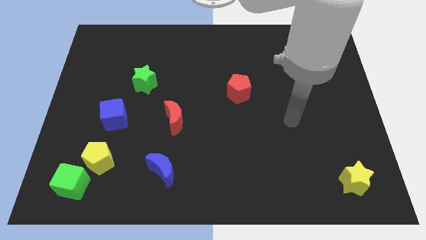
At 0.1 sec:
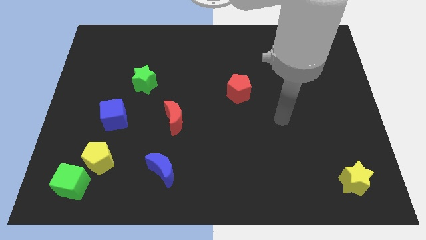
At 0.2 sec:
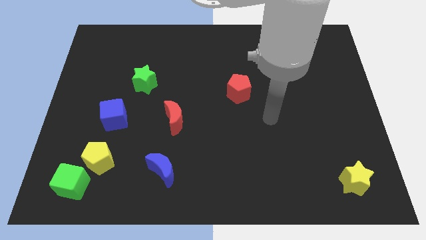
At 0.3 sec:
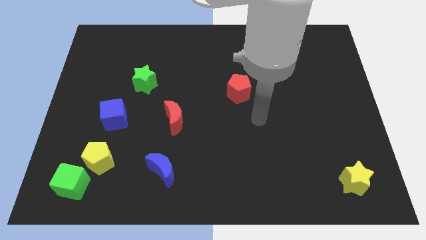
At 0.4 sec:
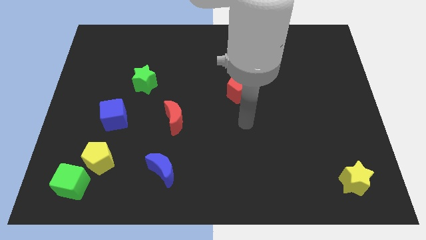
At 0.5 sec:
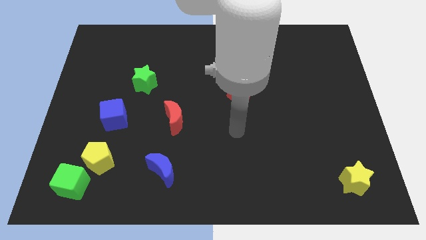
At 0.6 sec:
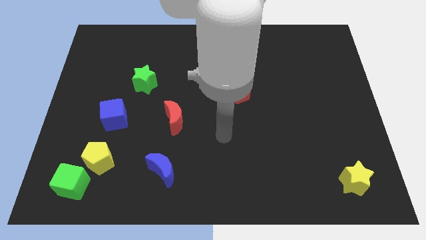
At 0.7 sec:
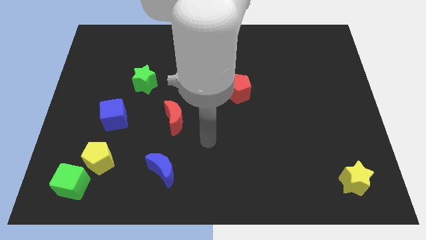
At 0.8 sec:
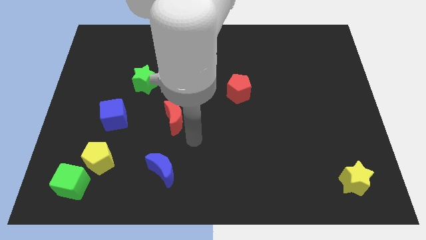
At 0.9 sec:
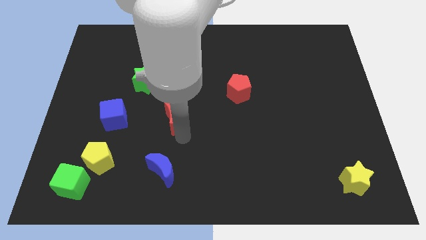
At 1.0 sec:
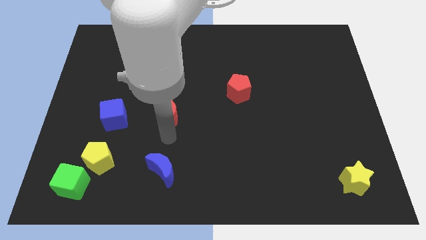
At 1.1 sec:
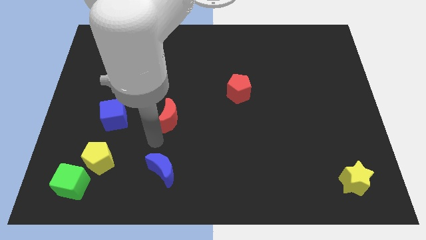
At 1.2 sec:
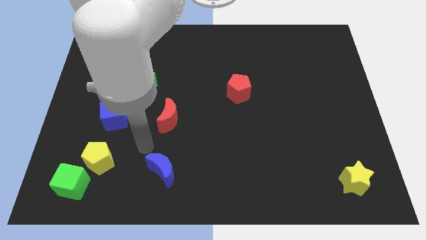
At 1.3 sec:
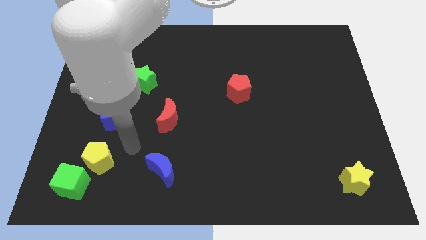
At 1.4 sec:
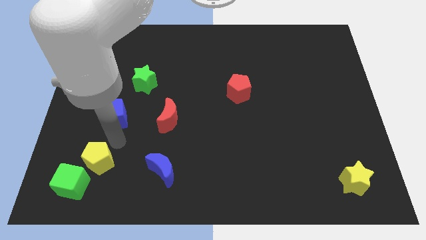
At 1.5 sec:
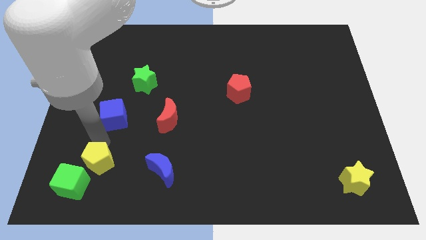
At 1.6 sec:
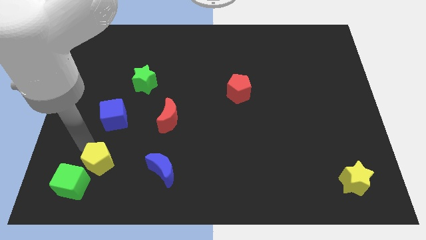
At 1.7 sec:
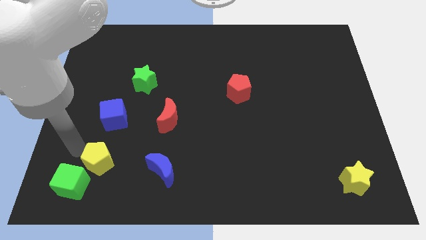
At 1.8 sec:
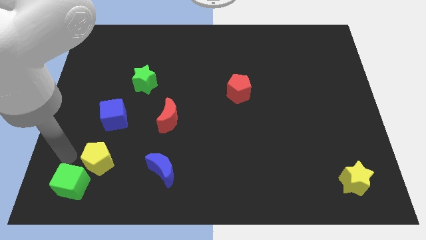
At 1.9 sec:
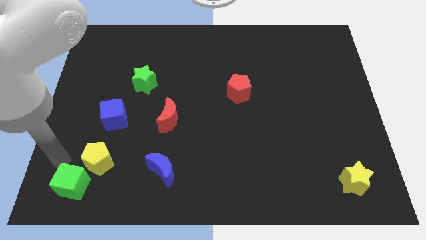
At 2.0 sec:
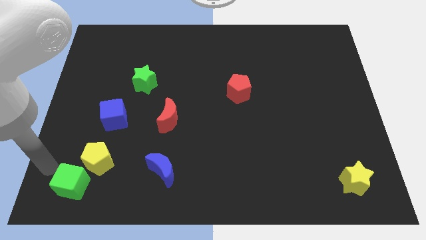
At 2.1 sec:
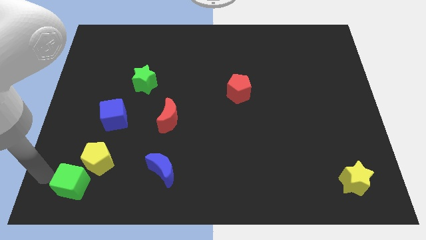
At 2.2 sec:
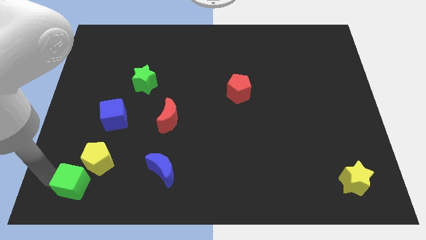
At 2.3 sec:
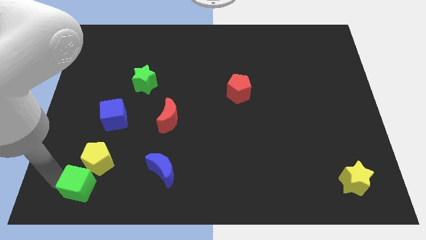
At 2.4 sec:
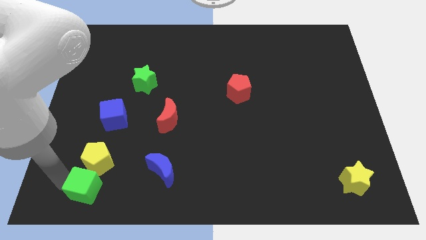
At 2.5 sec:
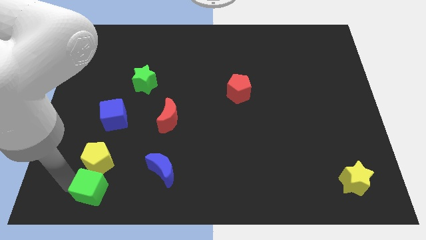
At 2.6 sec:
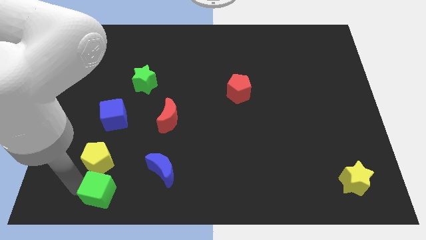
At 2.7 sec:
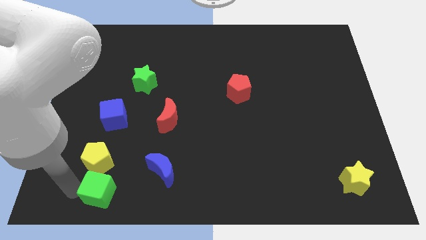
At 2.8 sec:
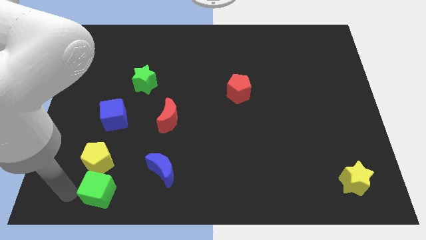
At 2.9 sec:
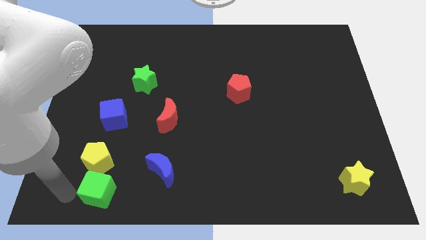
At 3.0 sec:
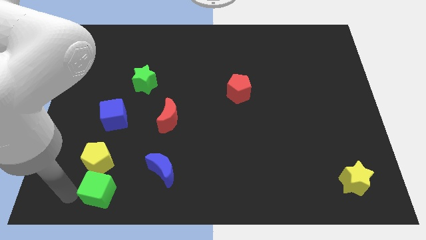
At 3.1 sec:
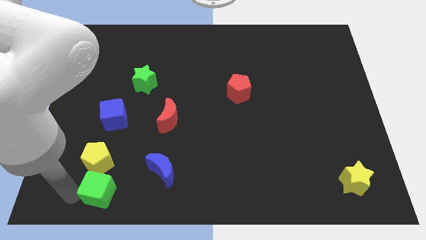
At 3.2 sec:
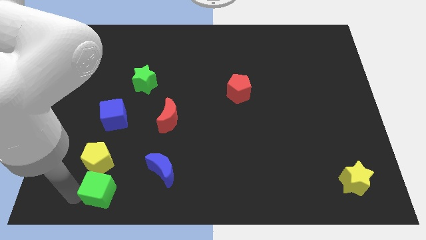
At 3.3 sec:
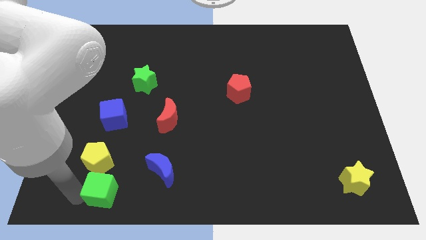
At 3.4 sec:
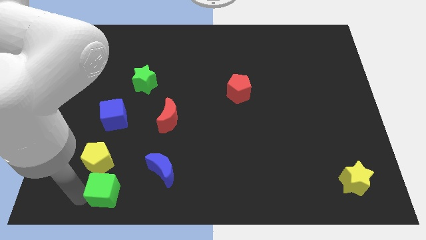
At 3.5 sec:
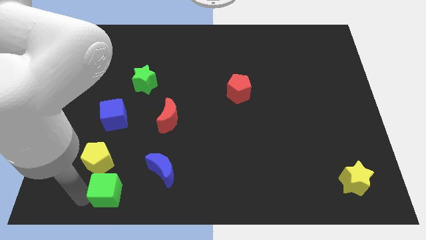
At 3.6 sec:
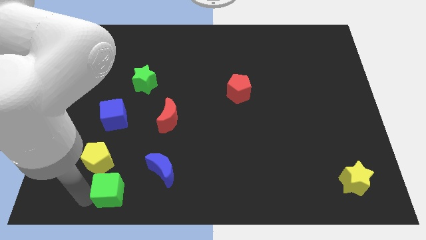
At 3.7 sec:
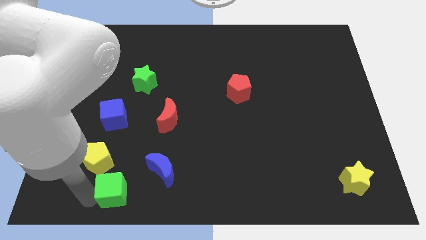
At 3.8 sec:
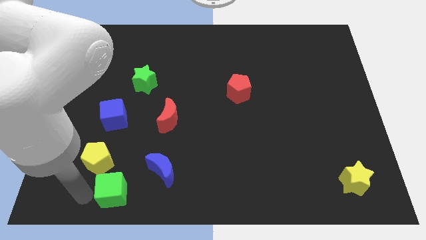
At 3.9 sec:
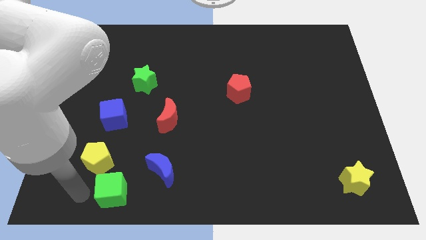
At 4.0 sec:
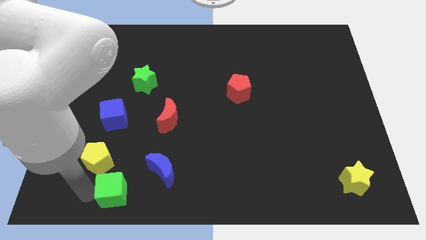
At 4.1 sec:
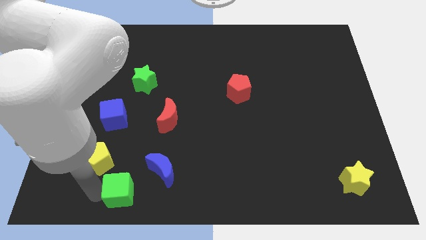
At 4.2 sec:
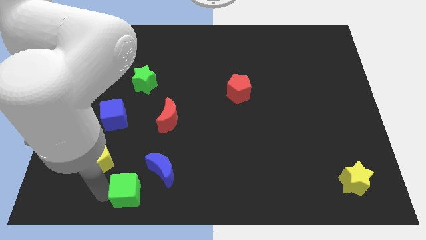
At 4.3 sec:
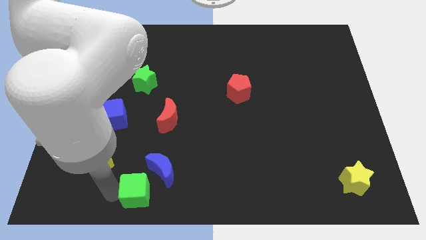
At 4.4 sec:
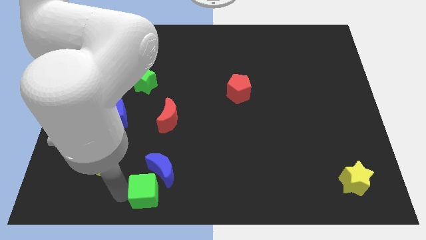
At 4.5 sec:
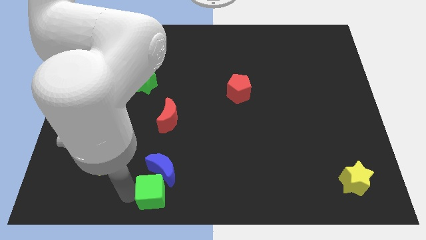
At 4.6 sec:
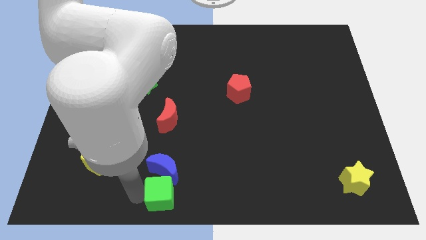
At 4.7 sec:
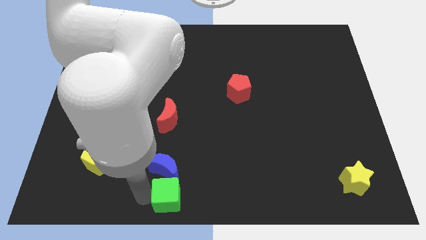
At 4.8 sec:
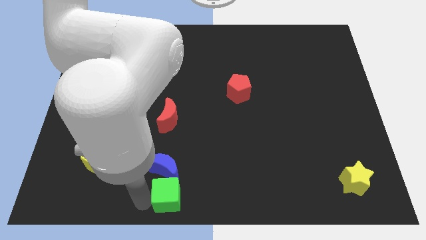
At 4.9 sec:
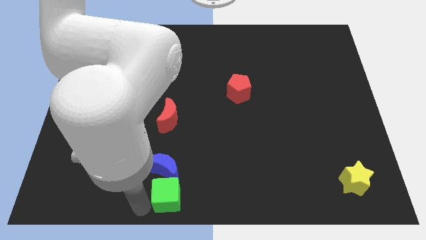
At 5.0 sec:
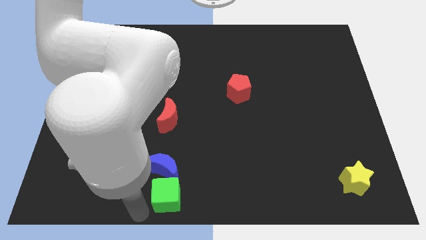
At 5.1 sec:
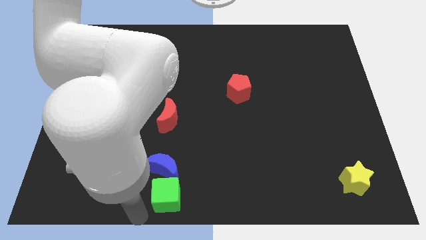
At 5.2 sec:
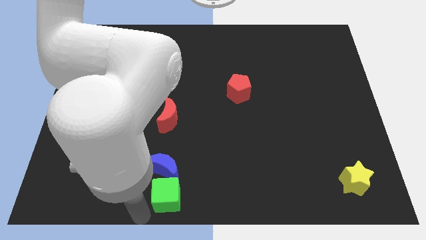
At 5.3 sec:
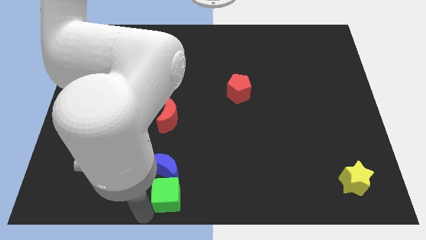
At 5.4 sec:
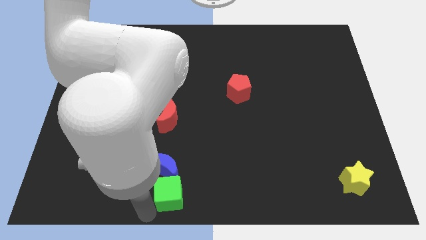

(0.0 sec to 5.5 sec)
slide the green cube to the right

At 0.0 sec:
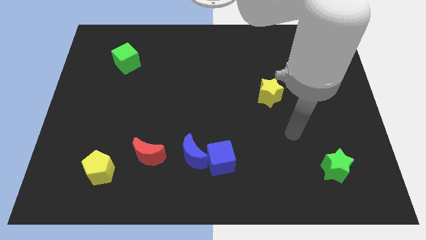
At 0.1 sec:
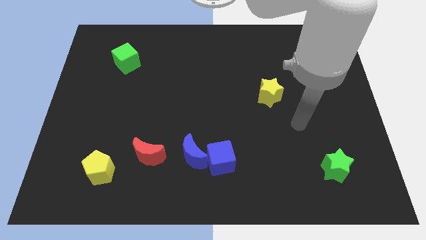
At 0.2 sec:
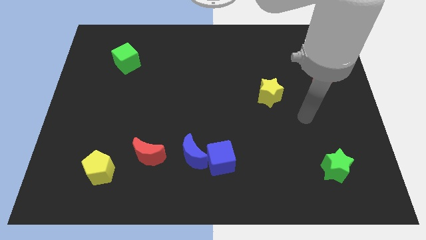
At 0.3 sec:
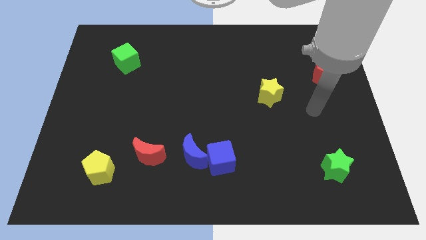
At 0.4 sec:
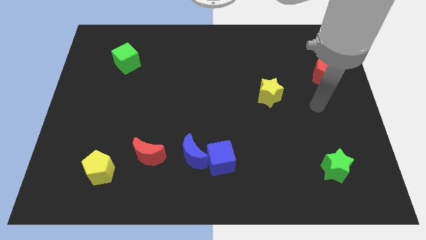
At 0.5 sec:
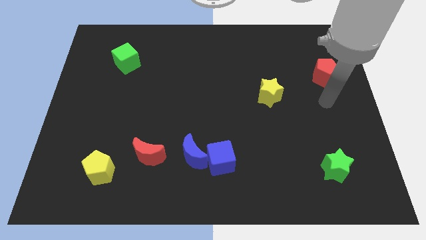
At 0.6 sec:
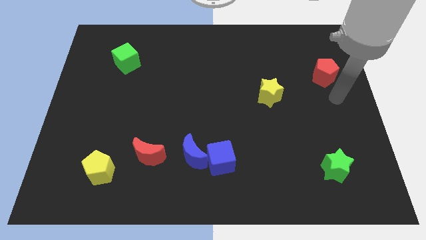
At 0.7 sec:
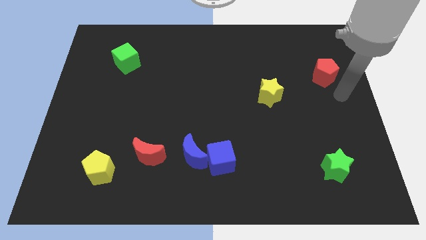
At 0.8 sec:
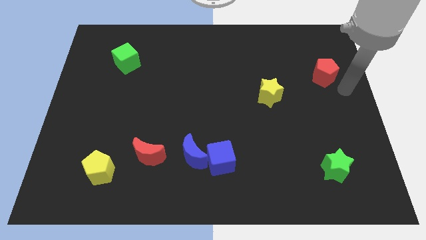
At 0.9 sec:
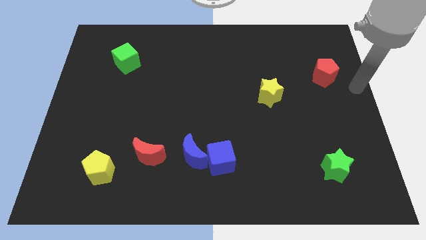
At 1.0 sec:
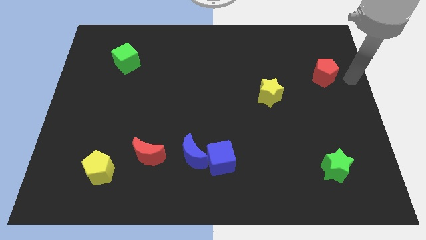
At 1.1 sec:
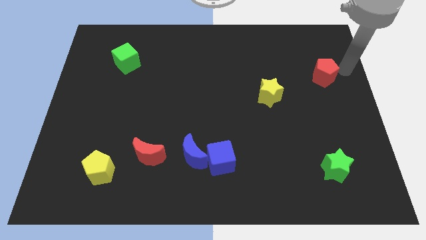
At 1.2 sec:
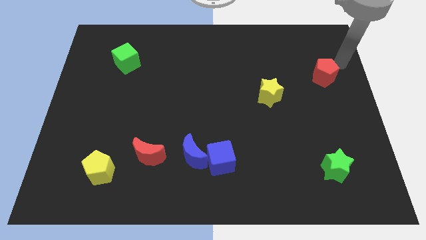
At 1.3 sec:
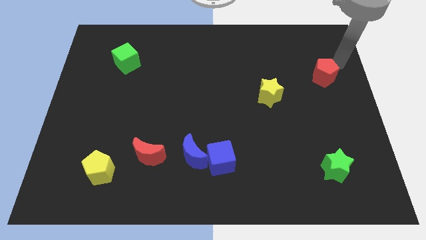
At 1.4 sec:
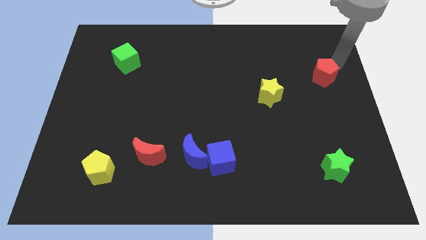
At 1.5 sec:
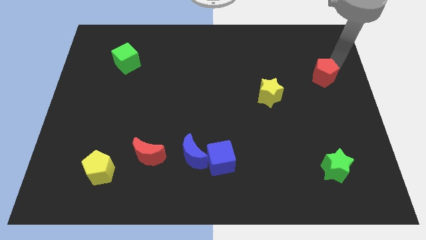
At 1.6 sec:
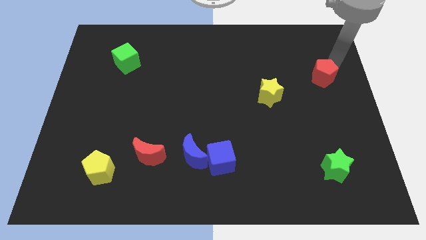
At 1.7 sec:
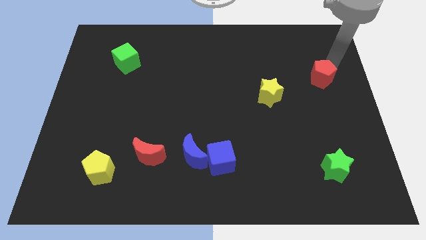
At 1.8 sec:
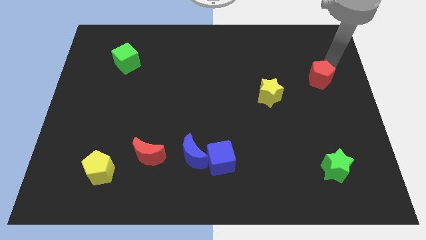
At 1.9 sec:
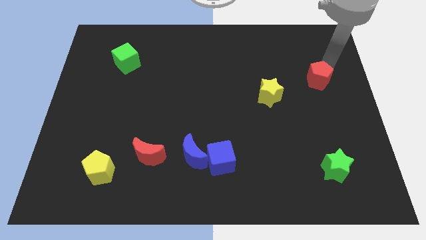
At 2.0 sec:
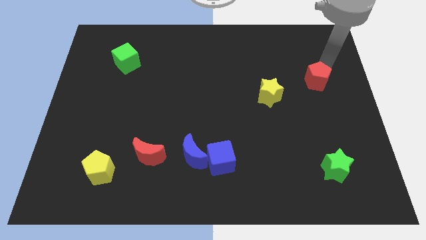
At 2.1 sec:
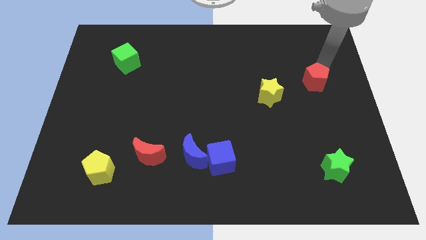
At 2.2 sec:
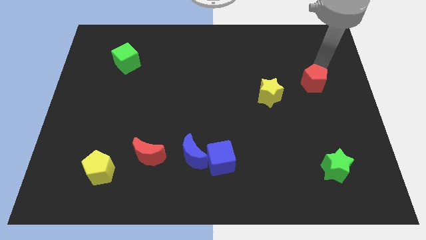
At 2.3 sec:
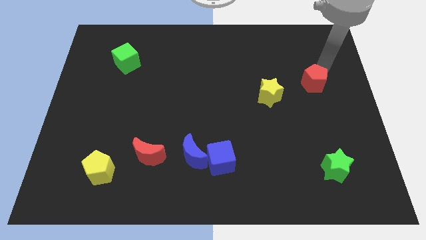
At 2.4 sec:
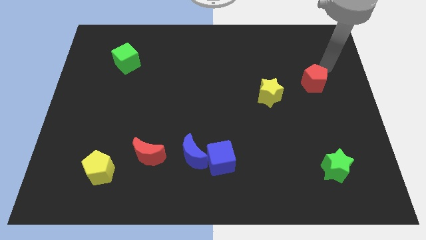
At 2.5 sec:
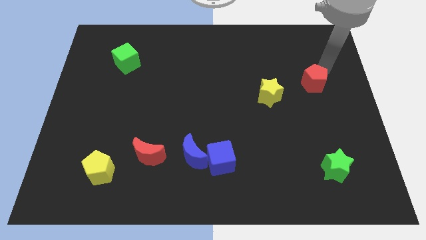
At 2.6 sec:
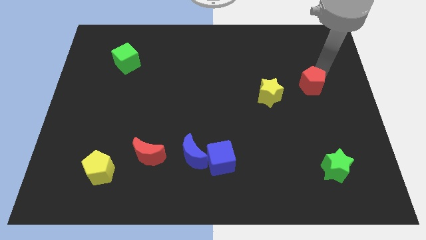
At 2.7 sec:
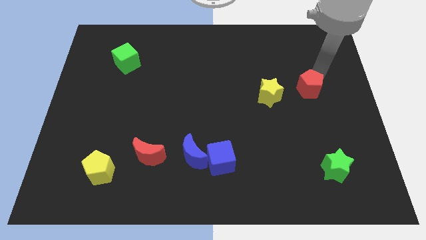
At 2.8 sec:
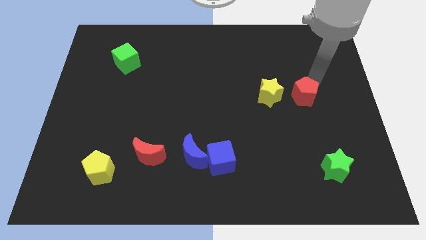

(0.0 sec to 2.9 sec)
move the red pentagon diagonally down and left somewhat
